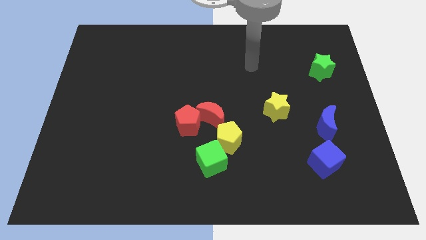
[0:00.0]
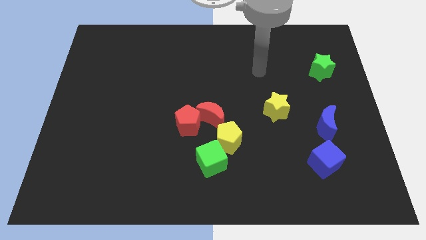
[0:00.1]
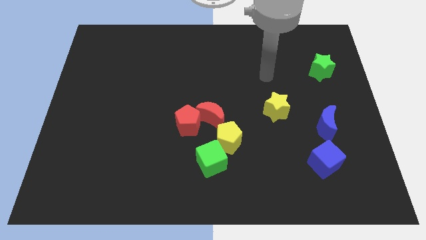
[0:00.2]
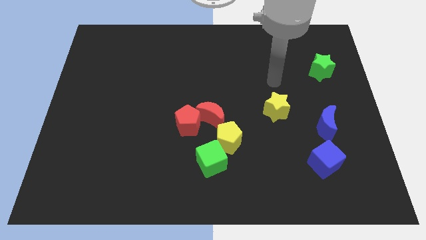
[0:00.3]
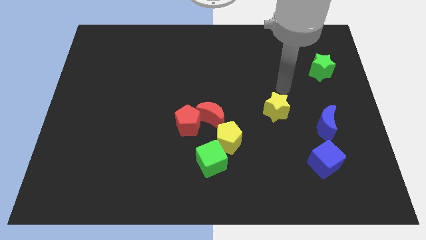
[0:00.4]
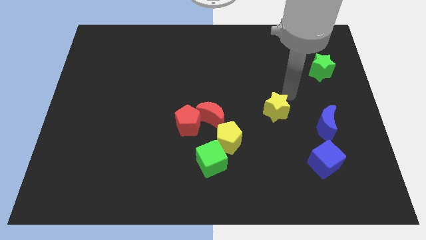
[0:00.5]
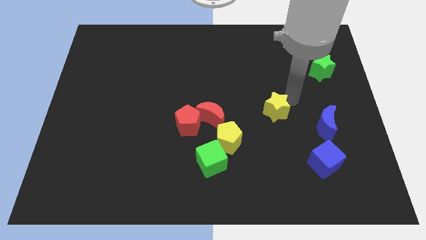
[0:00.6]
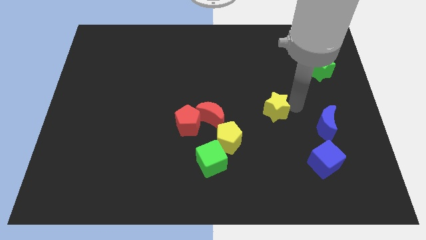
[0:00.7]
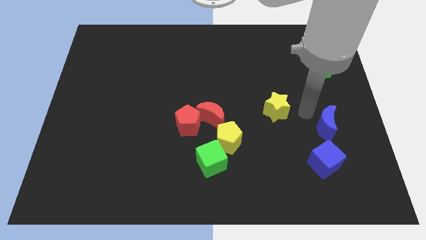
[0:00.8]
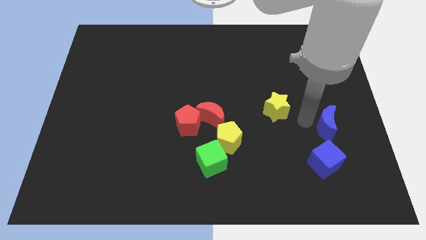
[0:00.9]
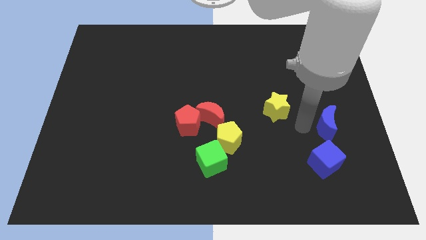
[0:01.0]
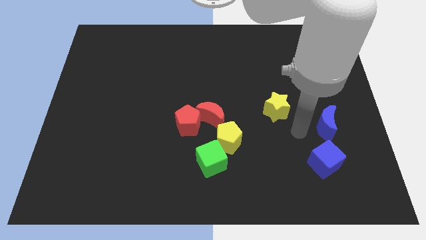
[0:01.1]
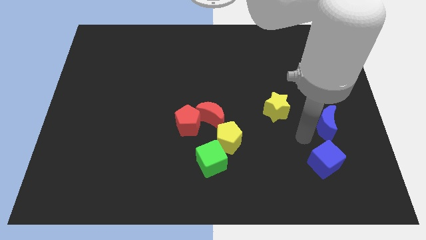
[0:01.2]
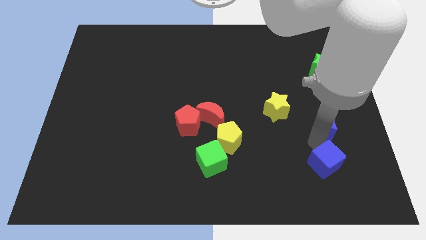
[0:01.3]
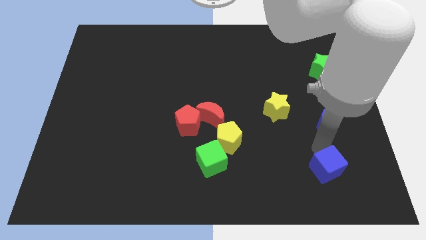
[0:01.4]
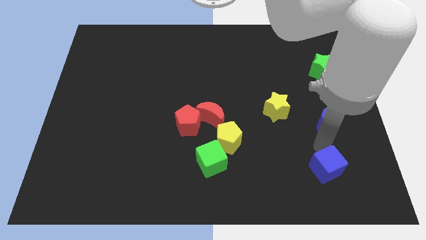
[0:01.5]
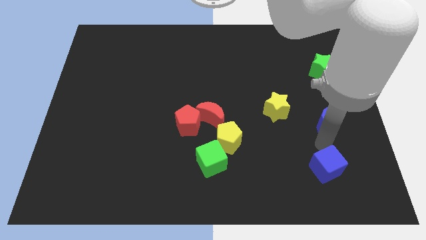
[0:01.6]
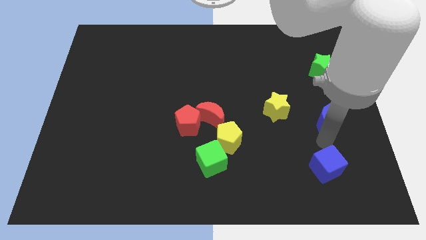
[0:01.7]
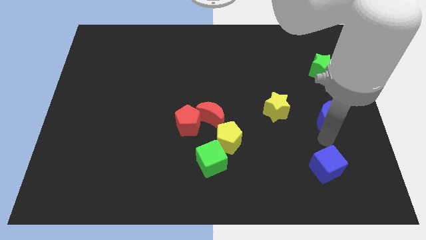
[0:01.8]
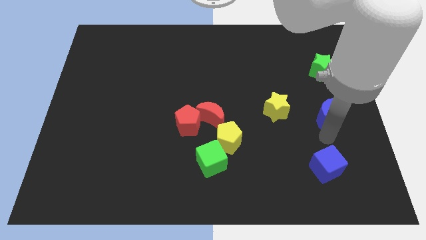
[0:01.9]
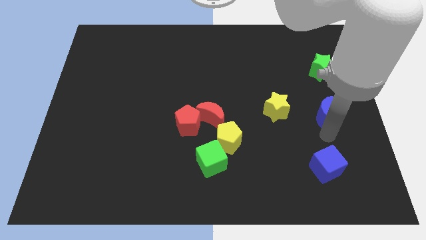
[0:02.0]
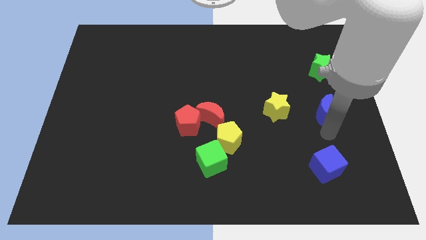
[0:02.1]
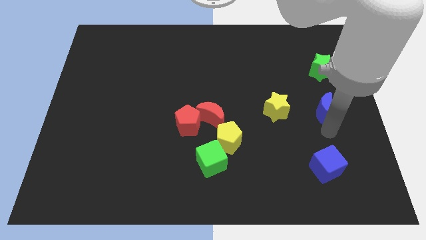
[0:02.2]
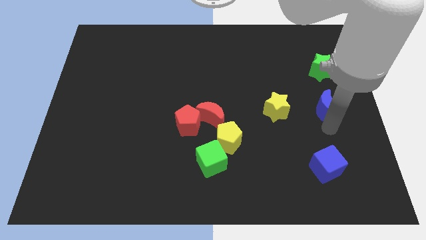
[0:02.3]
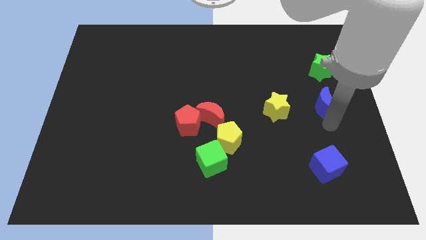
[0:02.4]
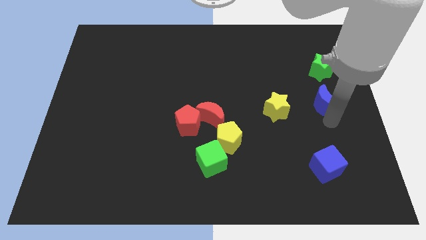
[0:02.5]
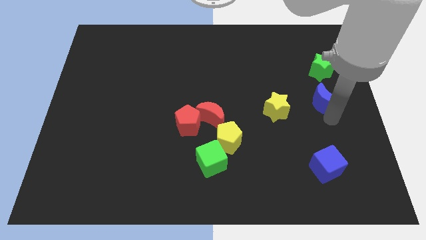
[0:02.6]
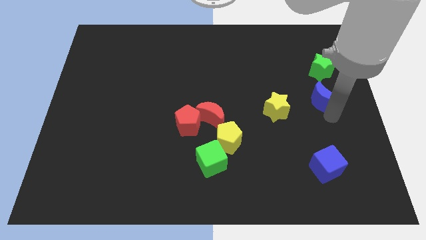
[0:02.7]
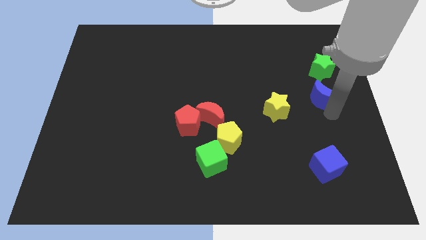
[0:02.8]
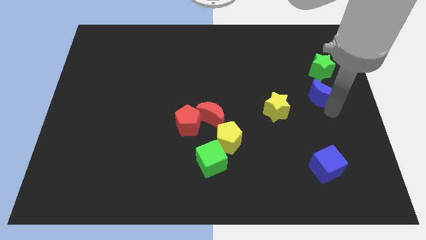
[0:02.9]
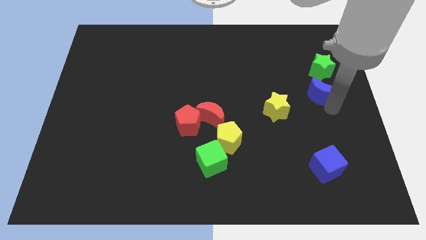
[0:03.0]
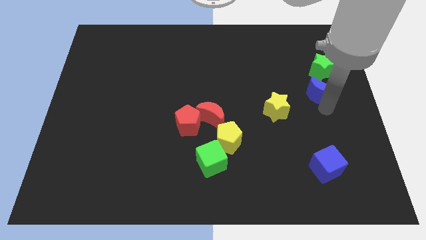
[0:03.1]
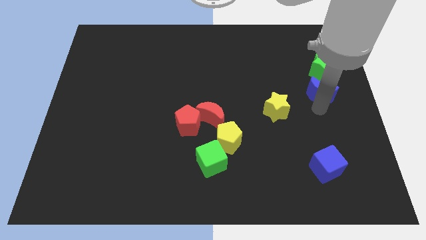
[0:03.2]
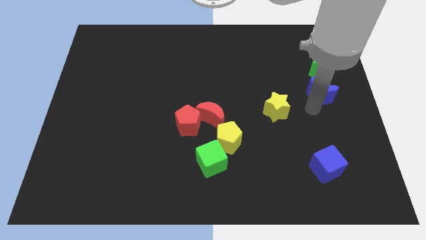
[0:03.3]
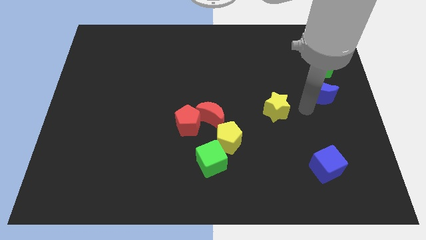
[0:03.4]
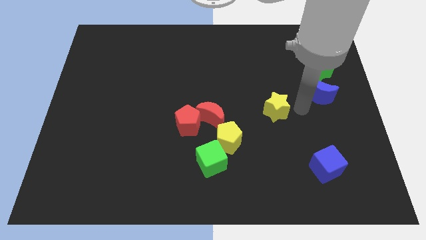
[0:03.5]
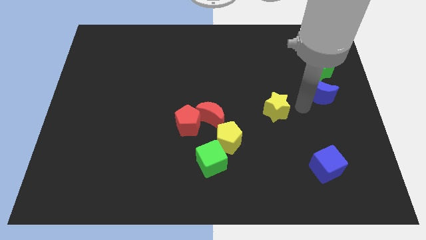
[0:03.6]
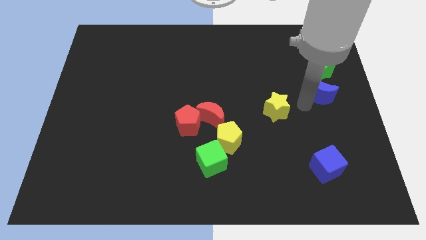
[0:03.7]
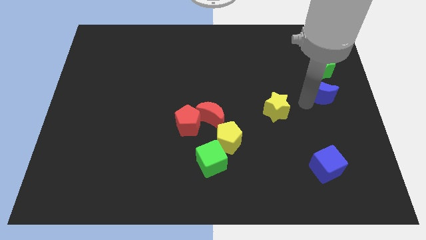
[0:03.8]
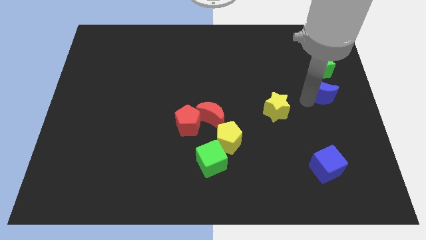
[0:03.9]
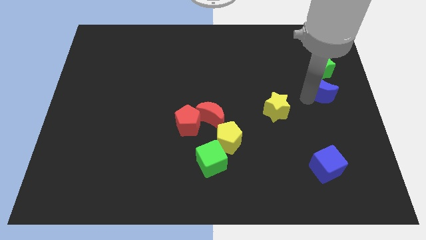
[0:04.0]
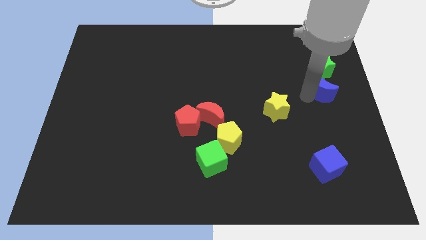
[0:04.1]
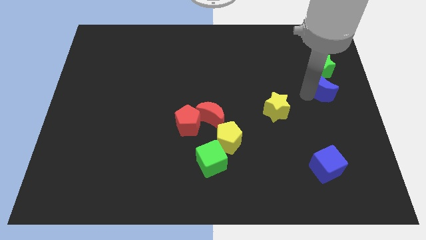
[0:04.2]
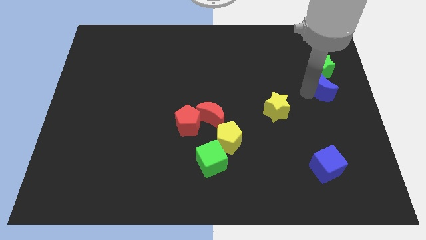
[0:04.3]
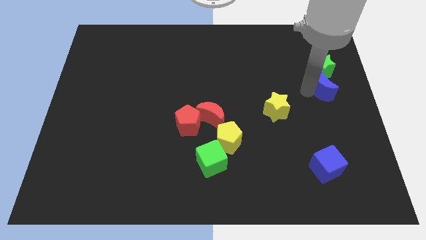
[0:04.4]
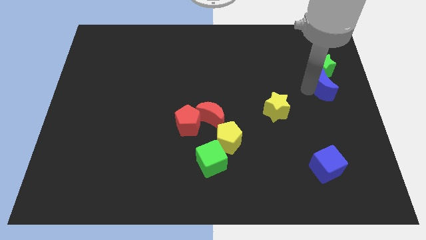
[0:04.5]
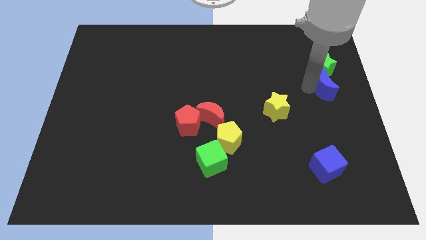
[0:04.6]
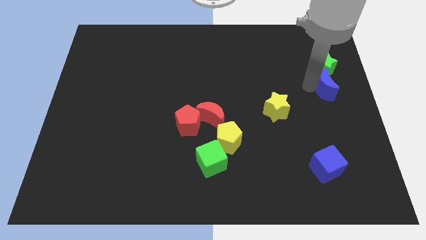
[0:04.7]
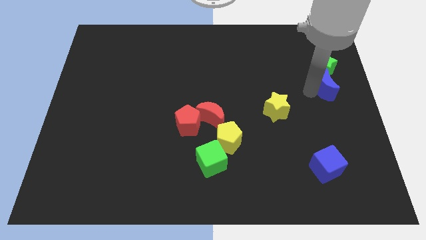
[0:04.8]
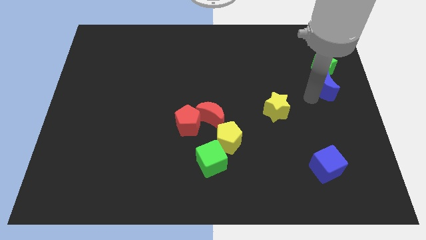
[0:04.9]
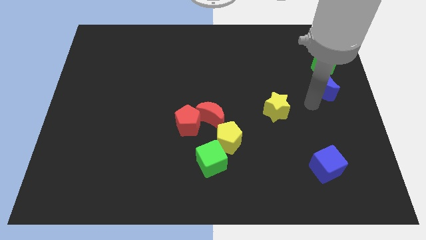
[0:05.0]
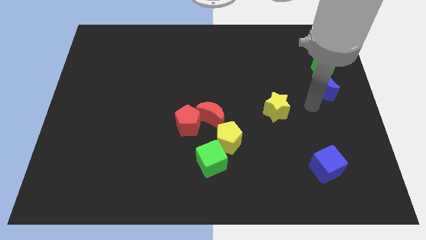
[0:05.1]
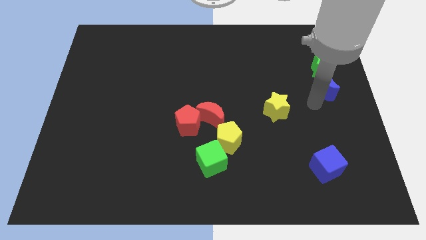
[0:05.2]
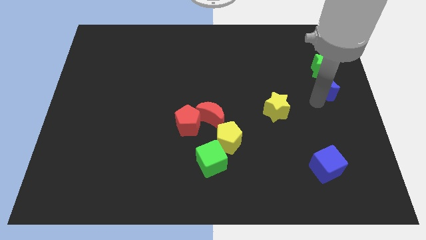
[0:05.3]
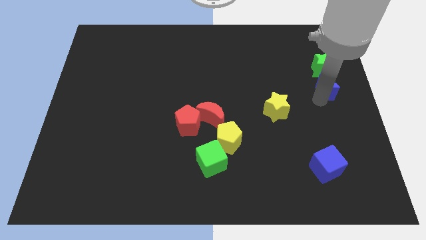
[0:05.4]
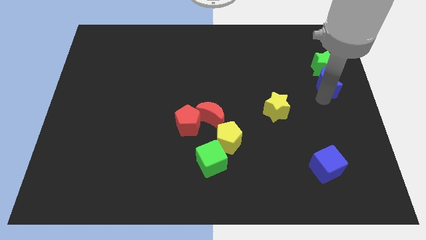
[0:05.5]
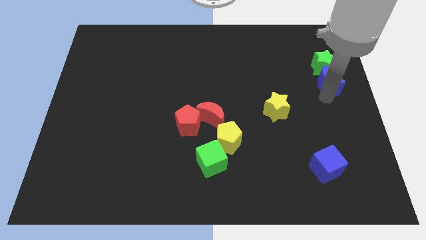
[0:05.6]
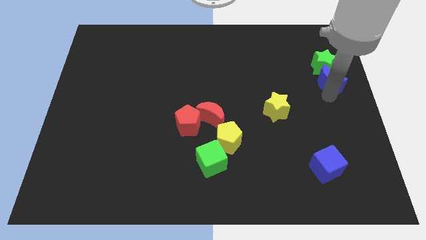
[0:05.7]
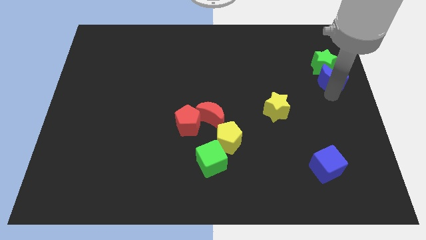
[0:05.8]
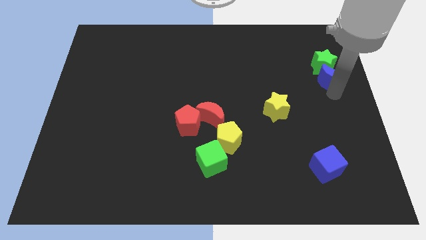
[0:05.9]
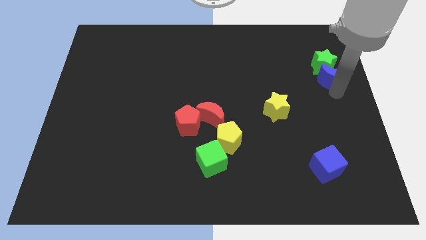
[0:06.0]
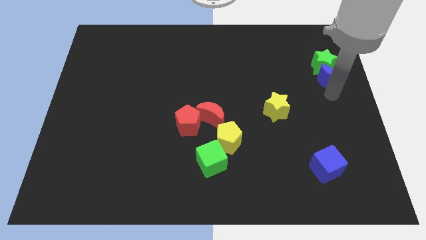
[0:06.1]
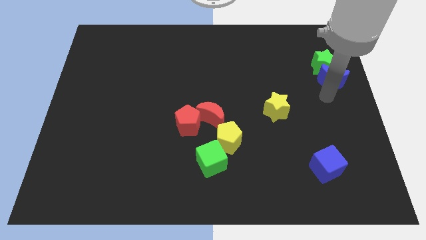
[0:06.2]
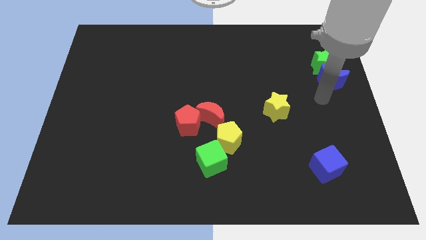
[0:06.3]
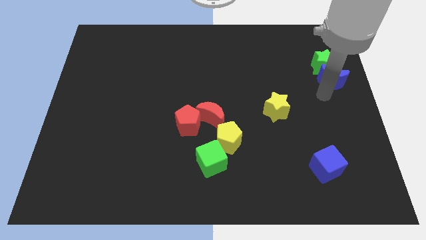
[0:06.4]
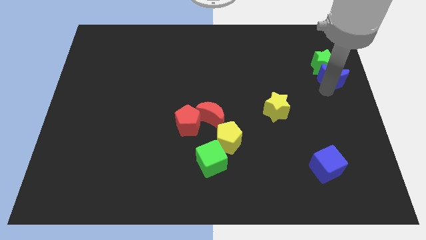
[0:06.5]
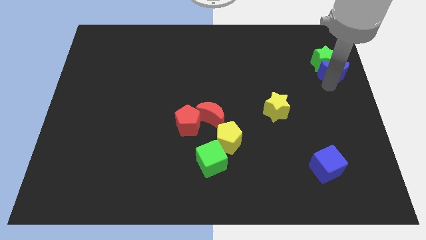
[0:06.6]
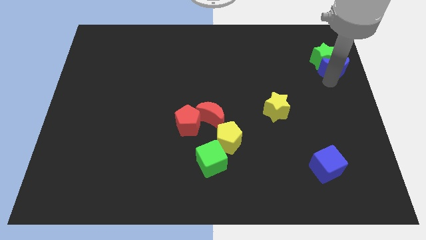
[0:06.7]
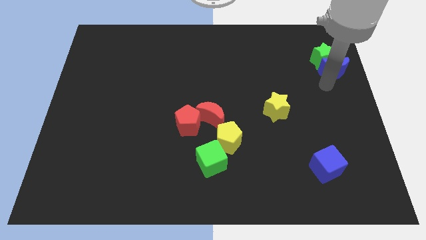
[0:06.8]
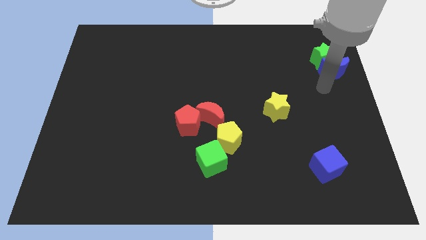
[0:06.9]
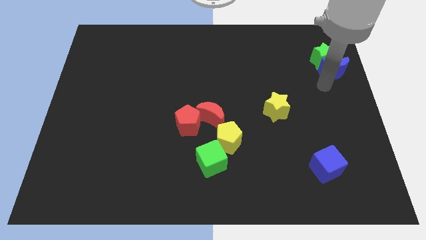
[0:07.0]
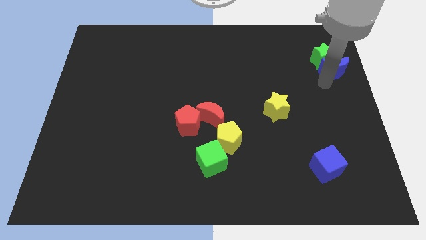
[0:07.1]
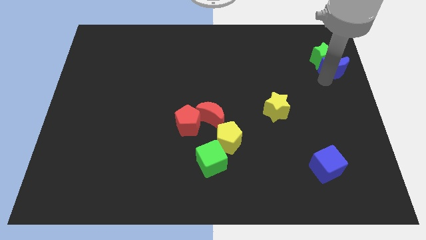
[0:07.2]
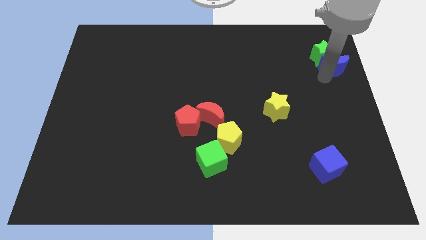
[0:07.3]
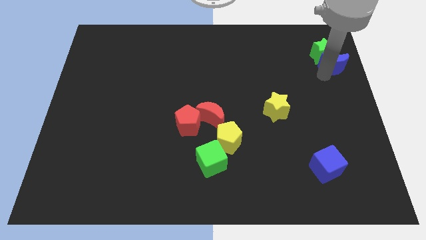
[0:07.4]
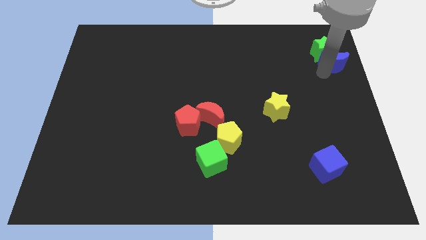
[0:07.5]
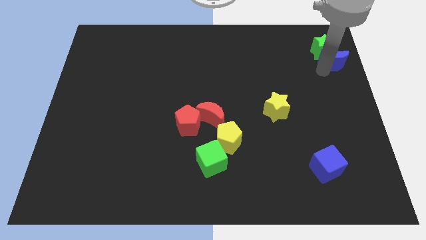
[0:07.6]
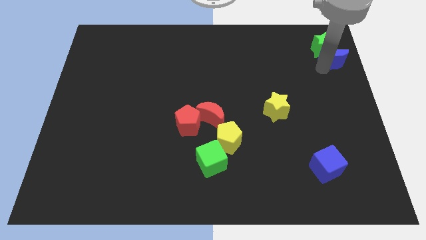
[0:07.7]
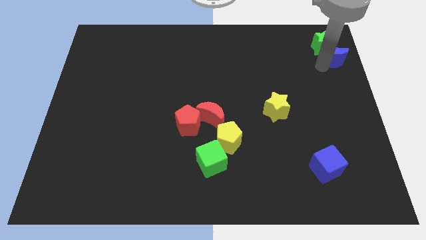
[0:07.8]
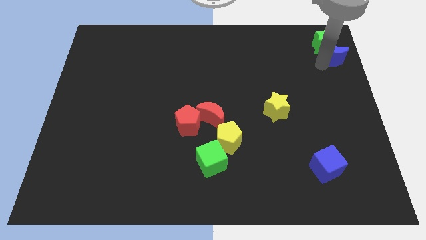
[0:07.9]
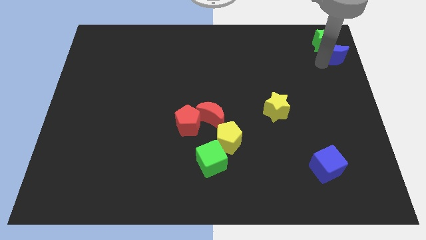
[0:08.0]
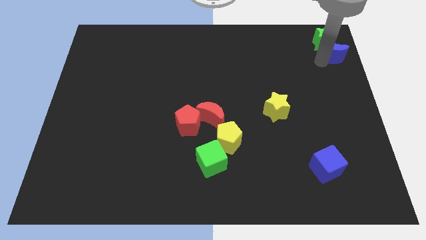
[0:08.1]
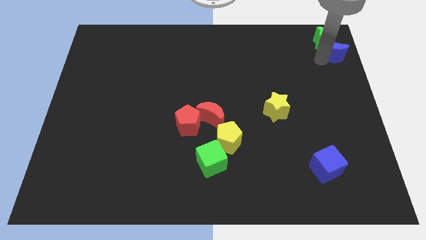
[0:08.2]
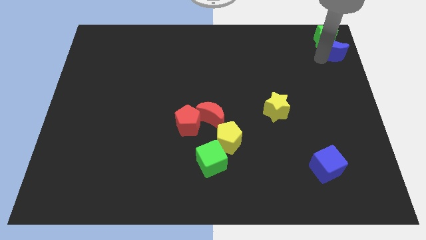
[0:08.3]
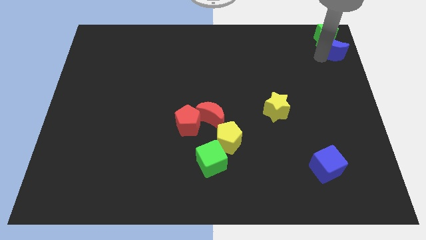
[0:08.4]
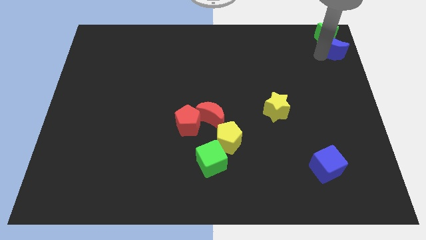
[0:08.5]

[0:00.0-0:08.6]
move the blue moon to the top right corner
